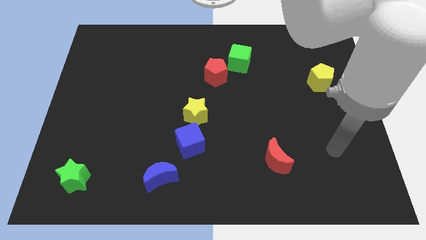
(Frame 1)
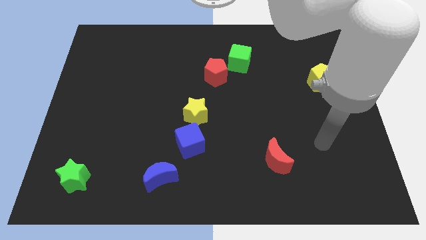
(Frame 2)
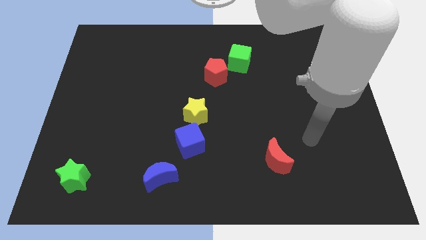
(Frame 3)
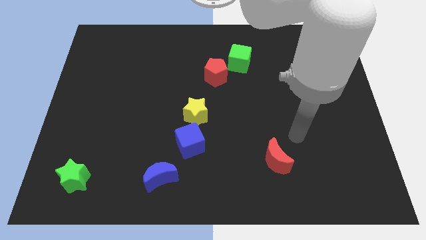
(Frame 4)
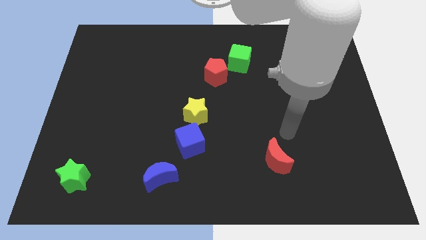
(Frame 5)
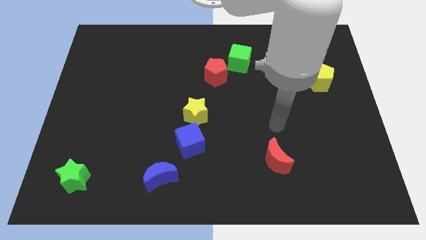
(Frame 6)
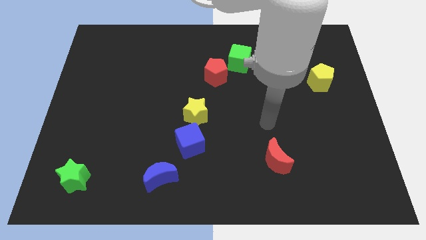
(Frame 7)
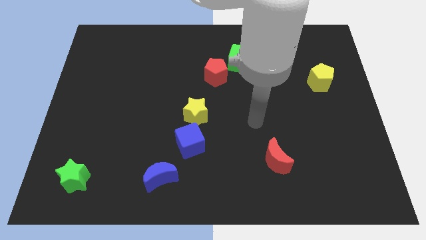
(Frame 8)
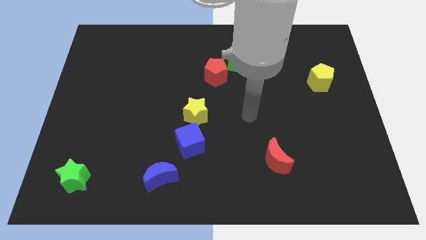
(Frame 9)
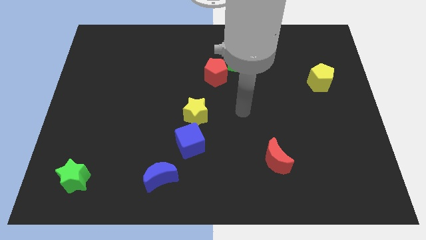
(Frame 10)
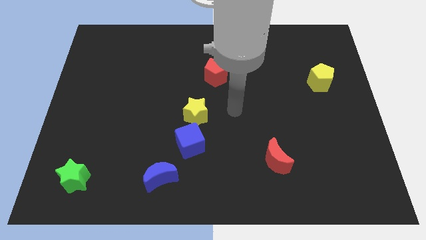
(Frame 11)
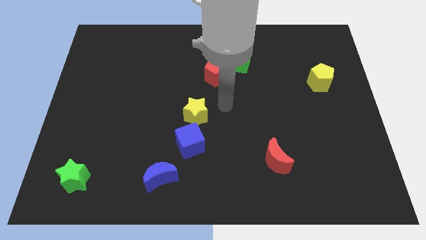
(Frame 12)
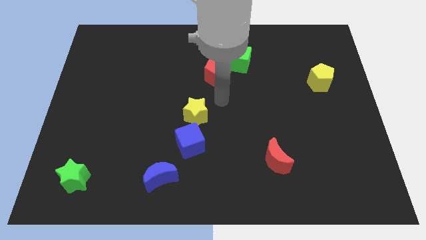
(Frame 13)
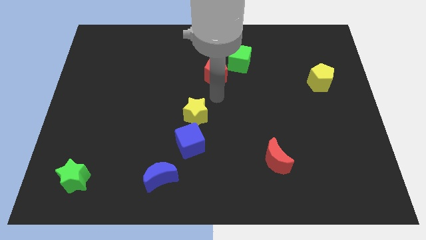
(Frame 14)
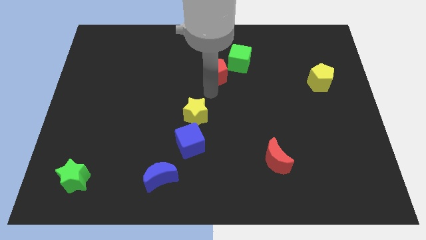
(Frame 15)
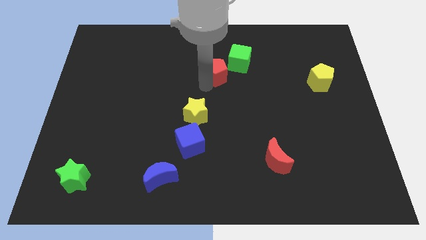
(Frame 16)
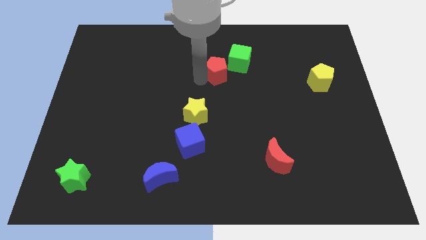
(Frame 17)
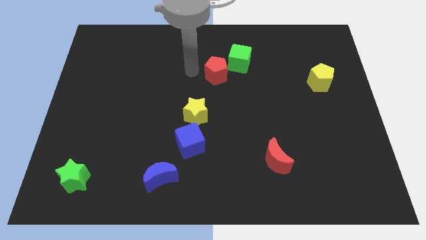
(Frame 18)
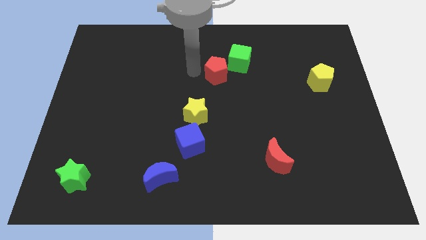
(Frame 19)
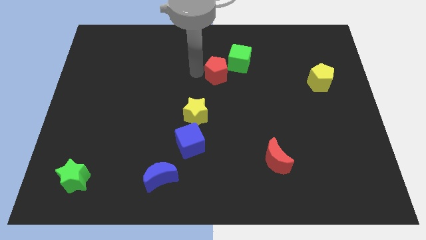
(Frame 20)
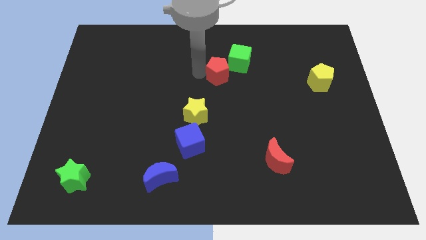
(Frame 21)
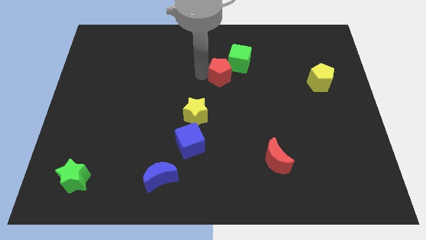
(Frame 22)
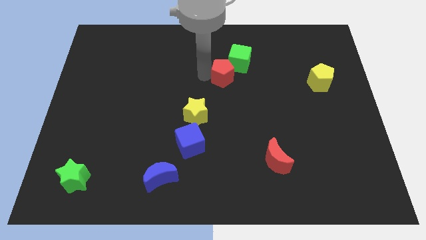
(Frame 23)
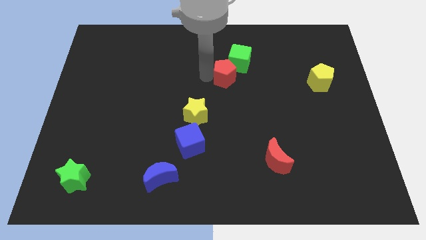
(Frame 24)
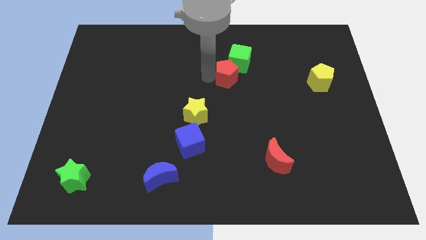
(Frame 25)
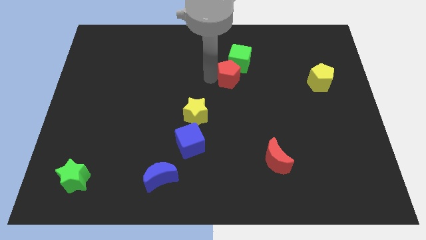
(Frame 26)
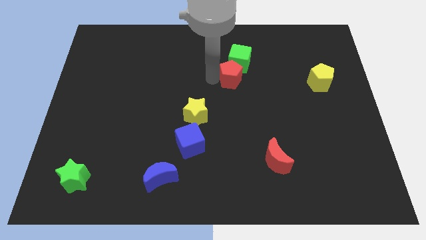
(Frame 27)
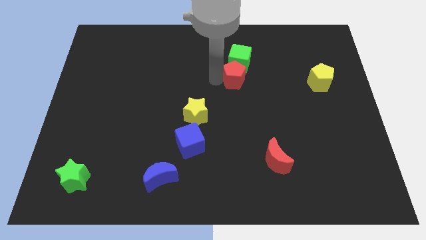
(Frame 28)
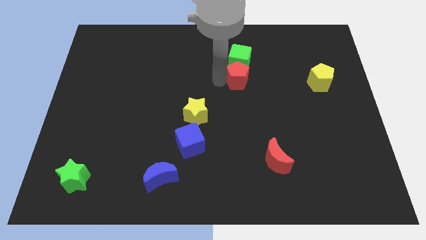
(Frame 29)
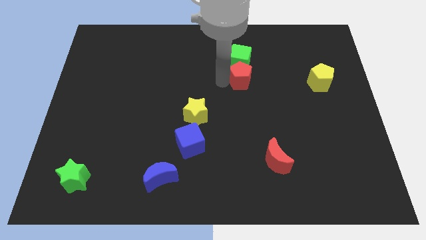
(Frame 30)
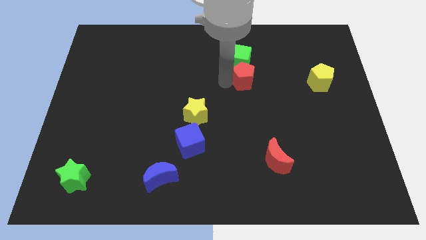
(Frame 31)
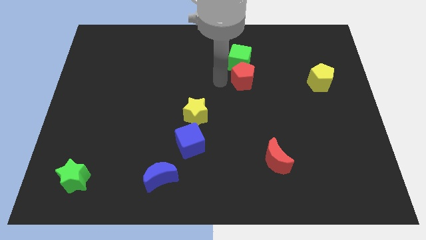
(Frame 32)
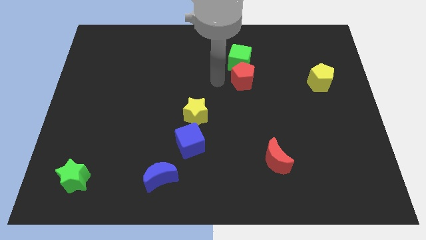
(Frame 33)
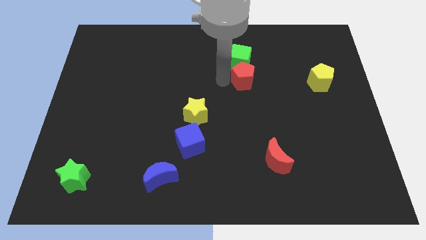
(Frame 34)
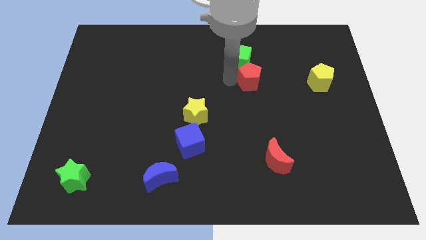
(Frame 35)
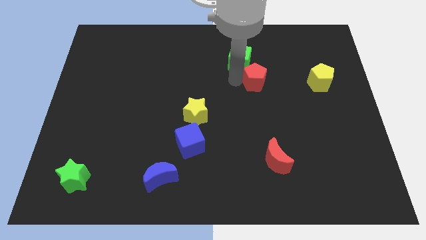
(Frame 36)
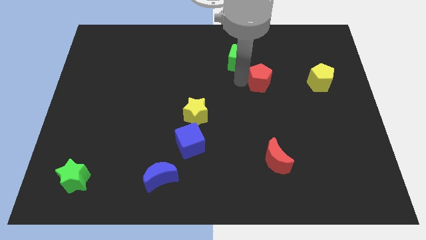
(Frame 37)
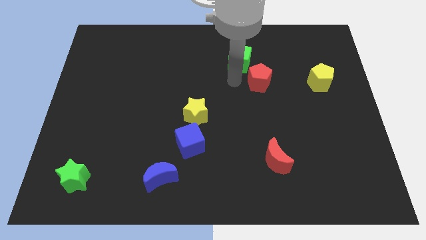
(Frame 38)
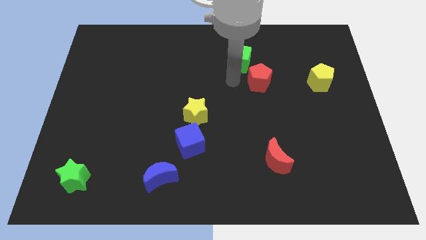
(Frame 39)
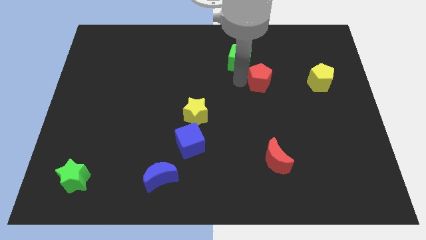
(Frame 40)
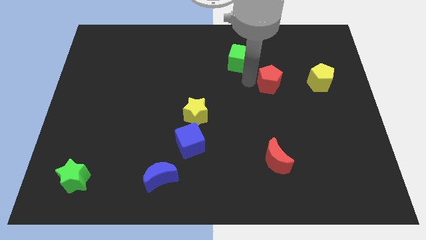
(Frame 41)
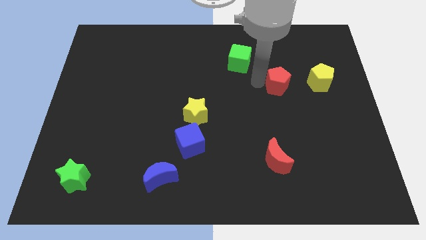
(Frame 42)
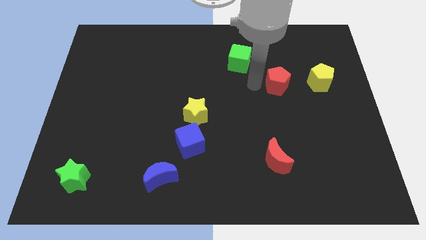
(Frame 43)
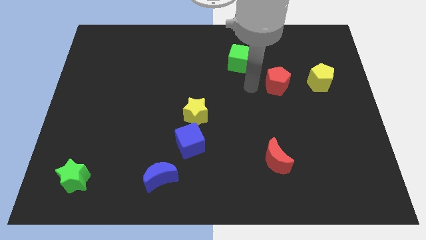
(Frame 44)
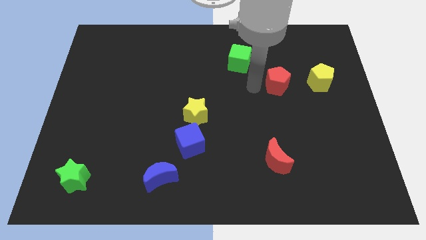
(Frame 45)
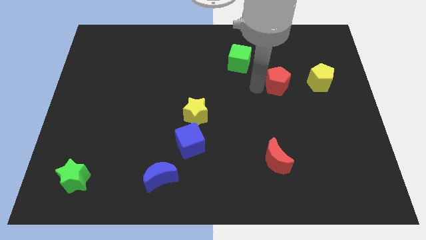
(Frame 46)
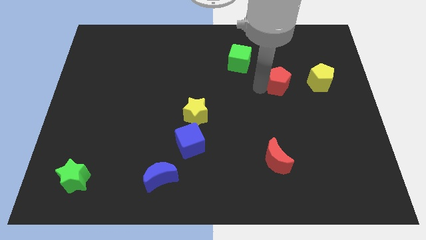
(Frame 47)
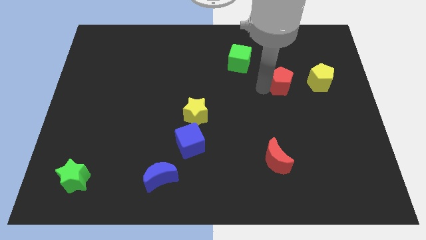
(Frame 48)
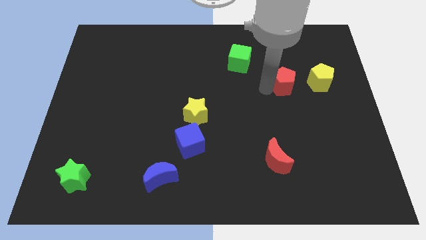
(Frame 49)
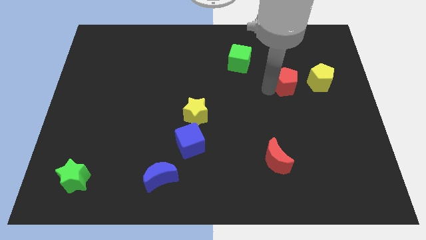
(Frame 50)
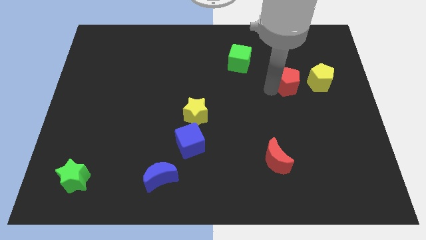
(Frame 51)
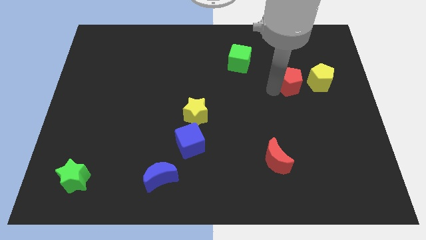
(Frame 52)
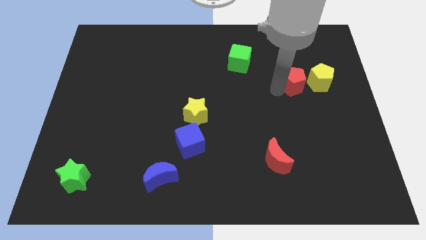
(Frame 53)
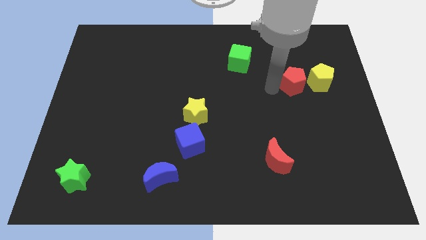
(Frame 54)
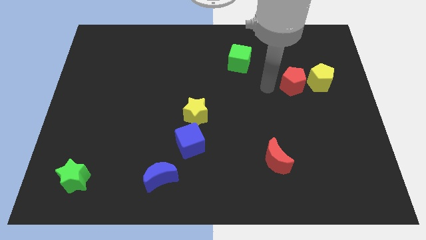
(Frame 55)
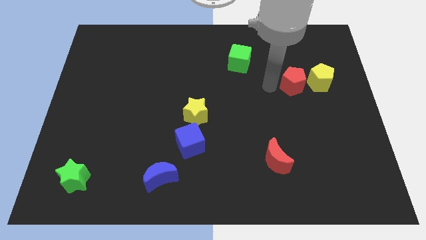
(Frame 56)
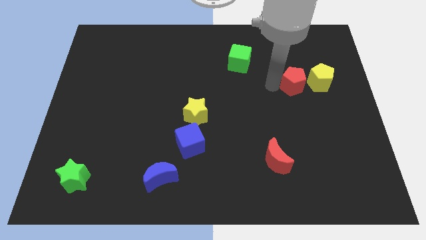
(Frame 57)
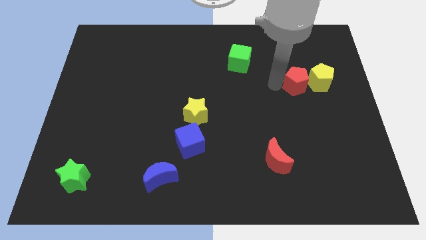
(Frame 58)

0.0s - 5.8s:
put the red pentagon towards the yellow pentagon

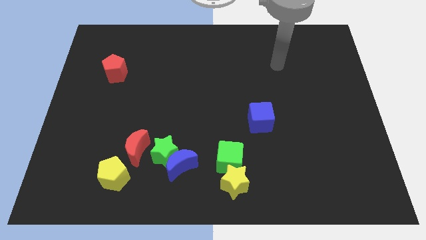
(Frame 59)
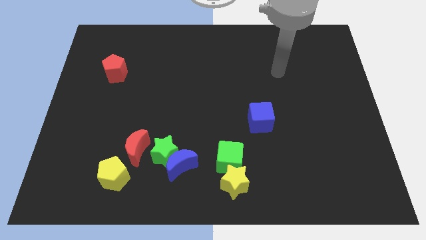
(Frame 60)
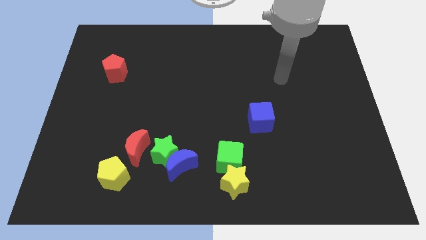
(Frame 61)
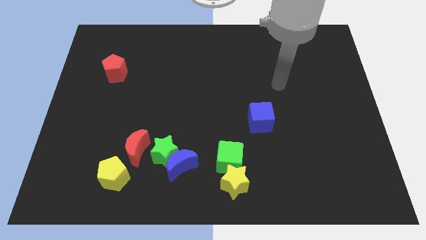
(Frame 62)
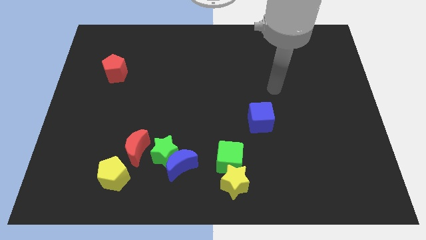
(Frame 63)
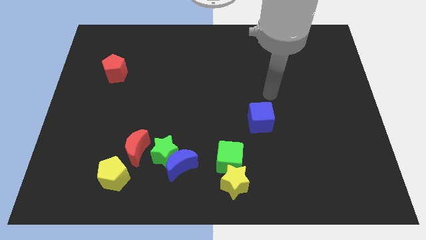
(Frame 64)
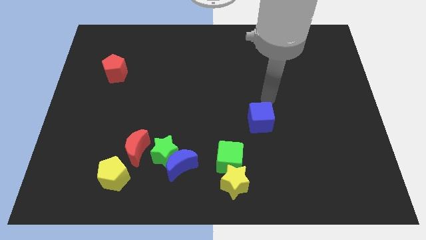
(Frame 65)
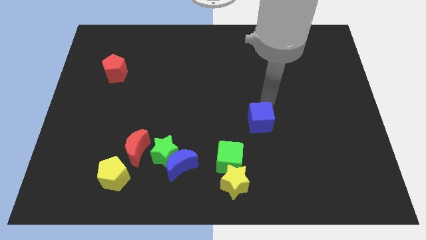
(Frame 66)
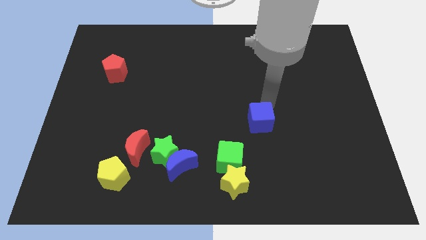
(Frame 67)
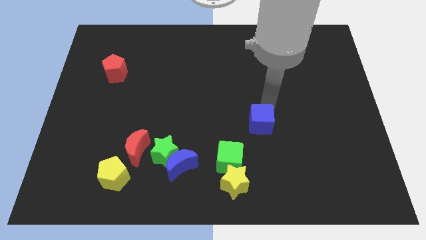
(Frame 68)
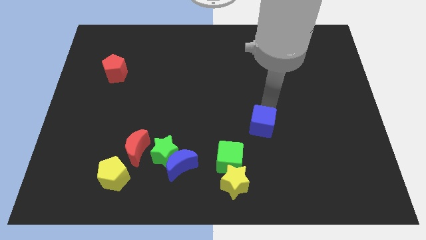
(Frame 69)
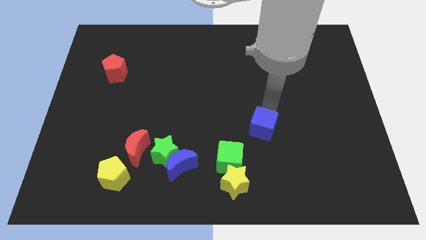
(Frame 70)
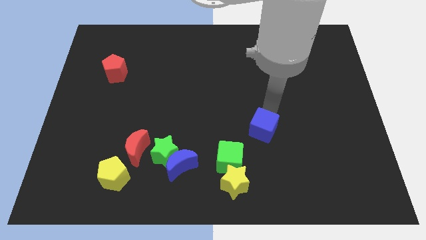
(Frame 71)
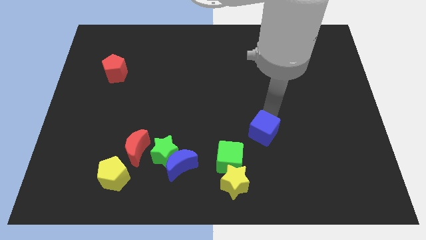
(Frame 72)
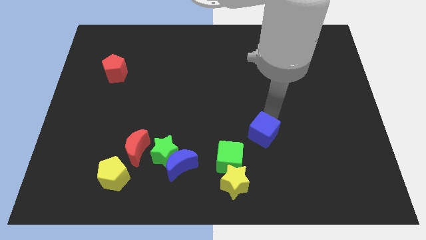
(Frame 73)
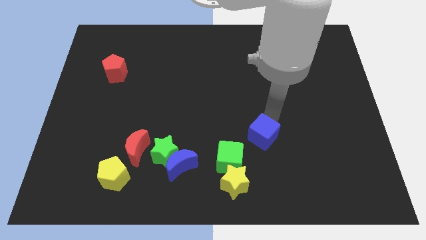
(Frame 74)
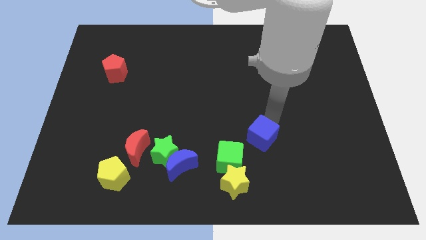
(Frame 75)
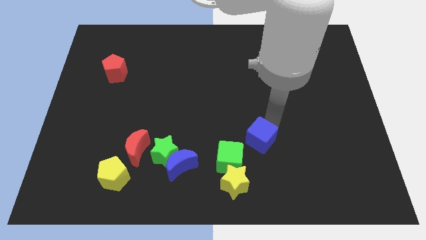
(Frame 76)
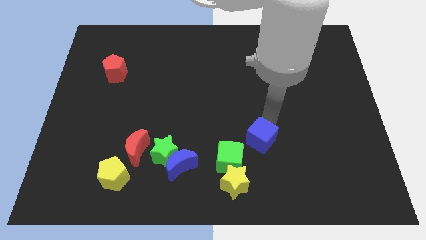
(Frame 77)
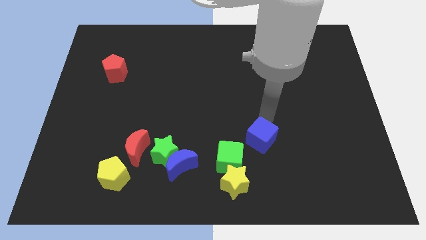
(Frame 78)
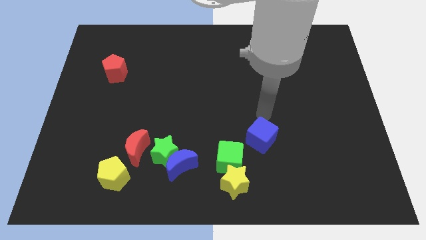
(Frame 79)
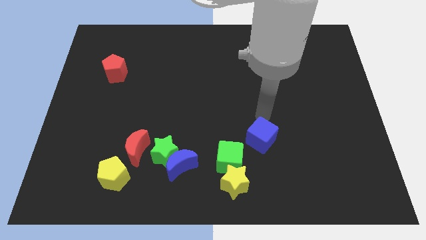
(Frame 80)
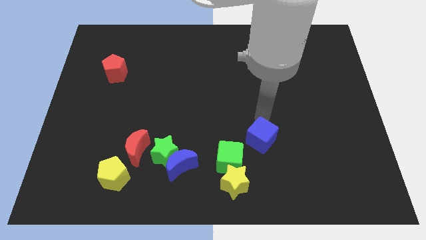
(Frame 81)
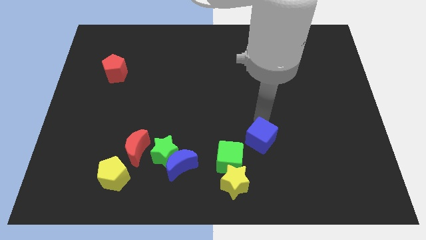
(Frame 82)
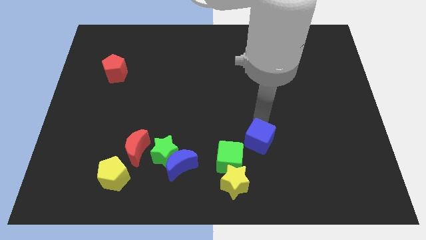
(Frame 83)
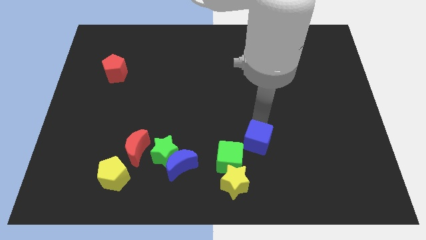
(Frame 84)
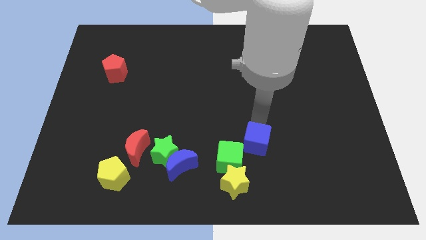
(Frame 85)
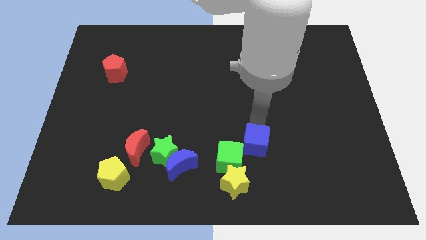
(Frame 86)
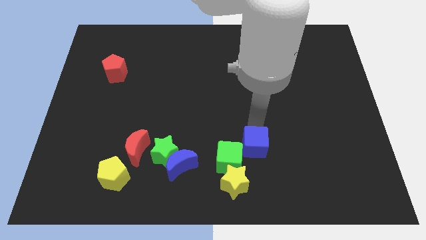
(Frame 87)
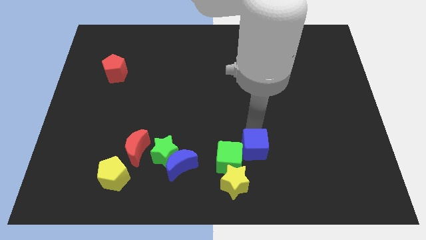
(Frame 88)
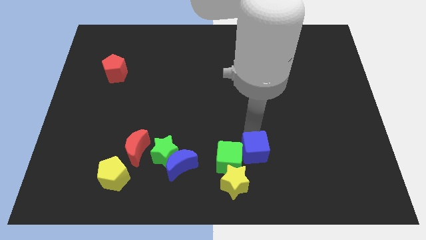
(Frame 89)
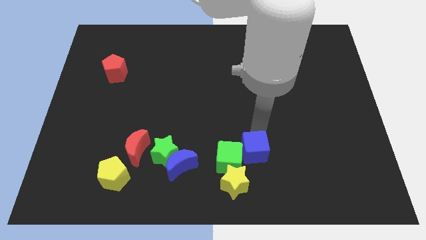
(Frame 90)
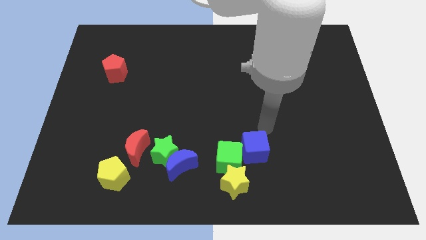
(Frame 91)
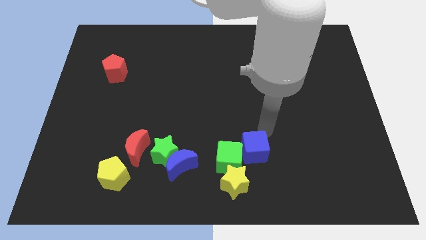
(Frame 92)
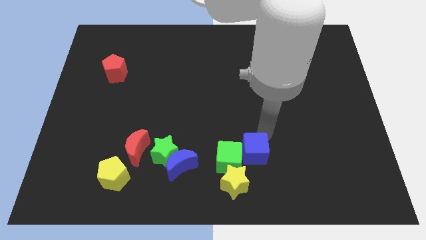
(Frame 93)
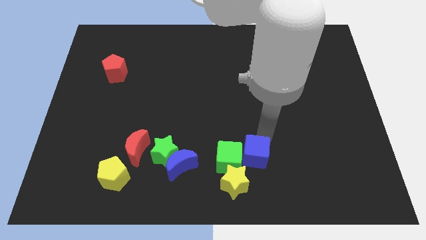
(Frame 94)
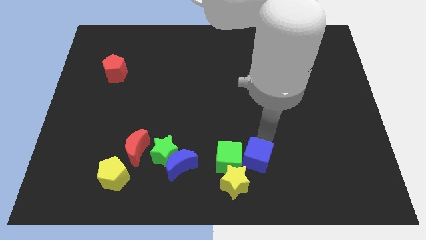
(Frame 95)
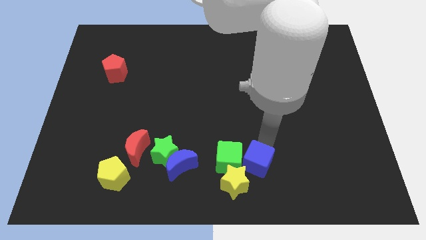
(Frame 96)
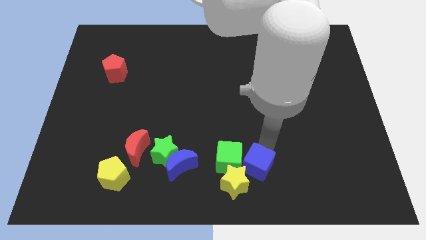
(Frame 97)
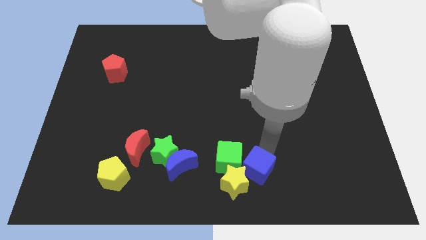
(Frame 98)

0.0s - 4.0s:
put the blue cube close to the yellow star
